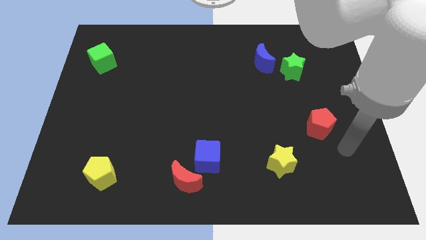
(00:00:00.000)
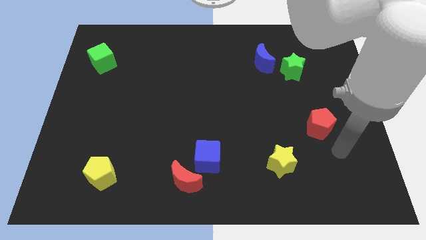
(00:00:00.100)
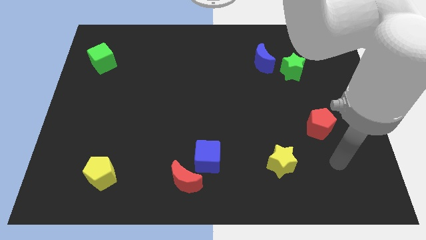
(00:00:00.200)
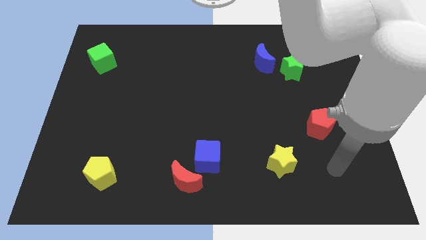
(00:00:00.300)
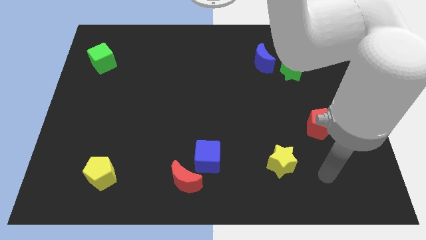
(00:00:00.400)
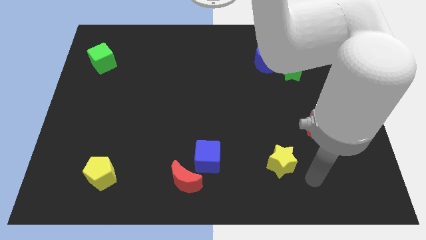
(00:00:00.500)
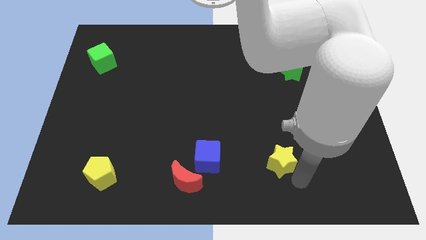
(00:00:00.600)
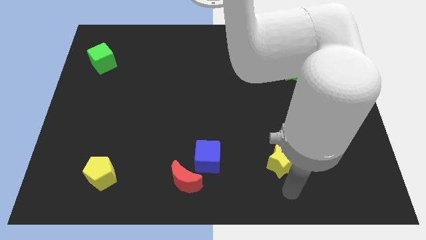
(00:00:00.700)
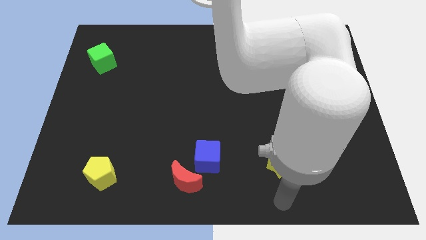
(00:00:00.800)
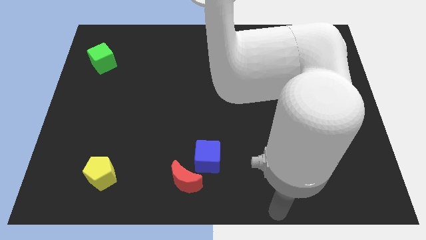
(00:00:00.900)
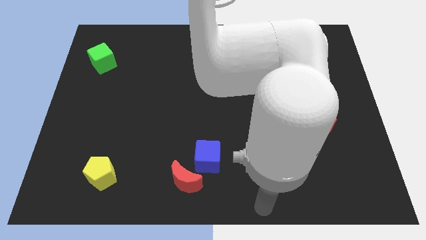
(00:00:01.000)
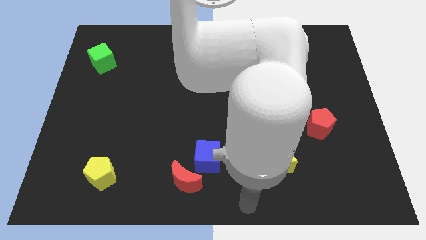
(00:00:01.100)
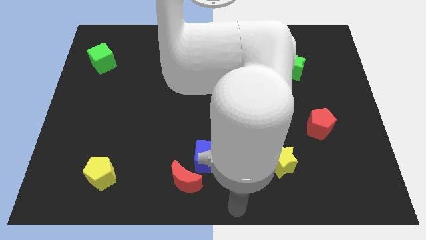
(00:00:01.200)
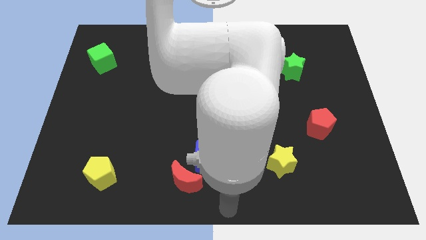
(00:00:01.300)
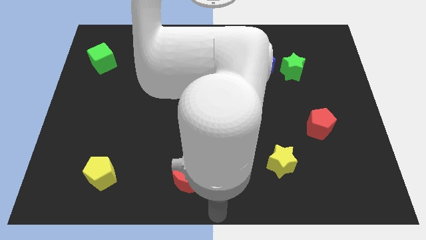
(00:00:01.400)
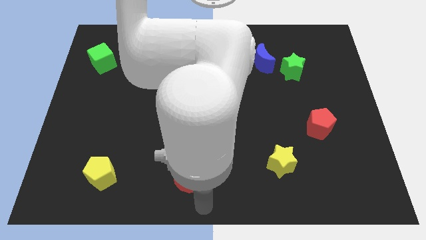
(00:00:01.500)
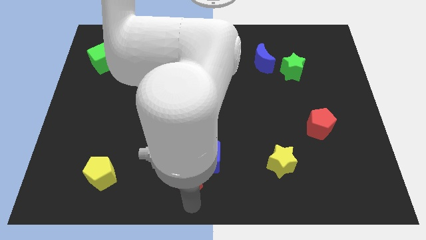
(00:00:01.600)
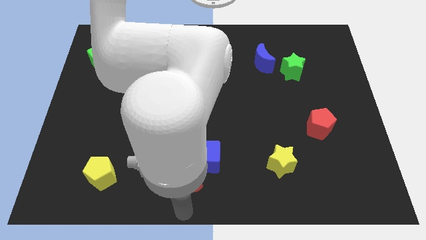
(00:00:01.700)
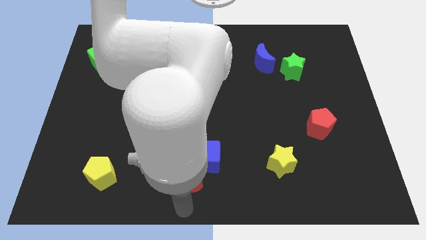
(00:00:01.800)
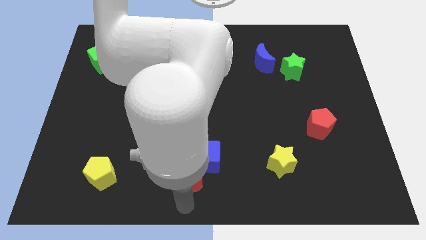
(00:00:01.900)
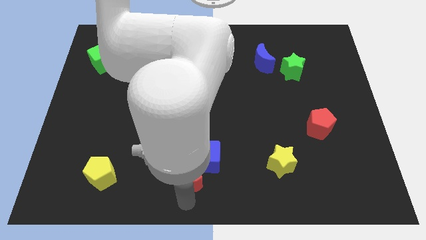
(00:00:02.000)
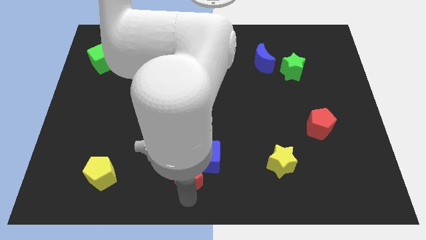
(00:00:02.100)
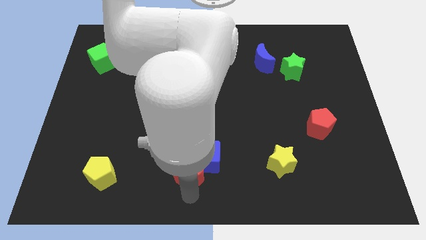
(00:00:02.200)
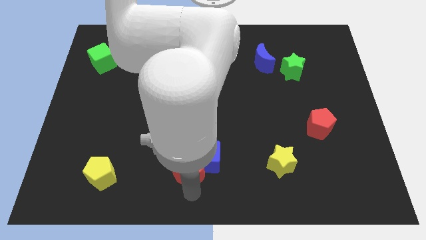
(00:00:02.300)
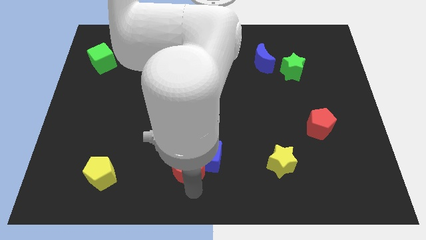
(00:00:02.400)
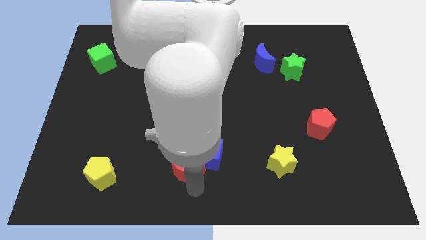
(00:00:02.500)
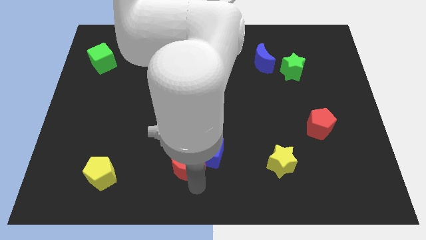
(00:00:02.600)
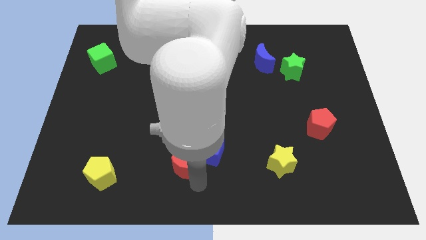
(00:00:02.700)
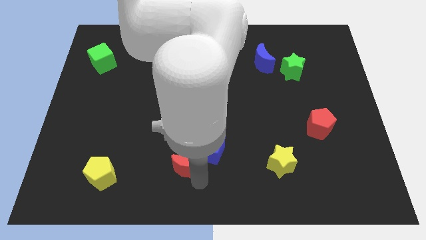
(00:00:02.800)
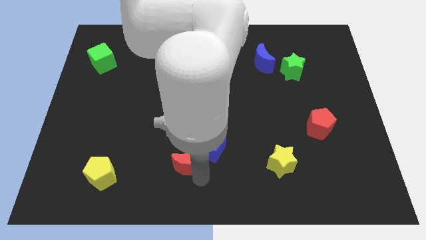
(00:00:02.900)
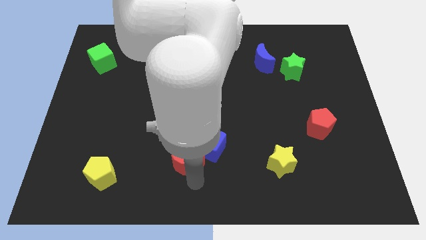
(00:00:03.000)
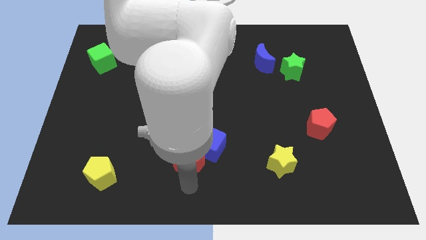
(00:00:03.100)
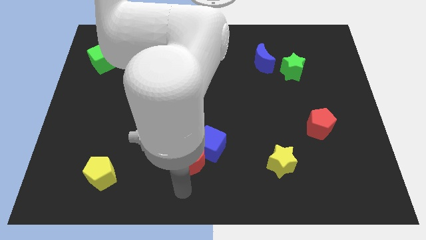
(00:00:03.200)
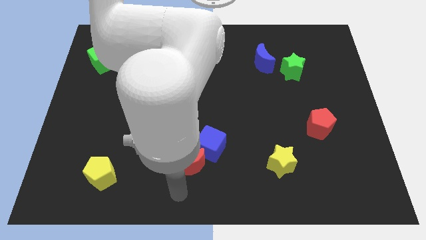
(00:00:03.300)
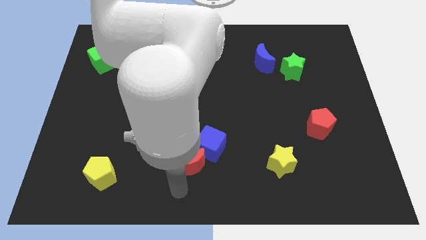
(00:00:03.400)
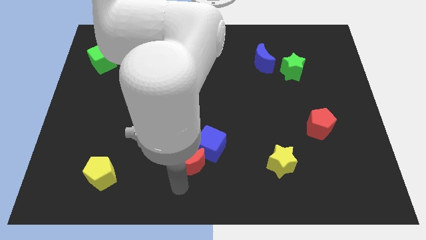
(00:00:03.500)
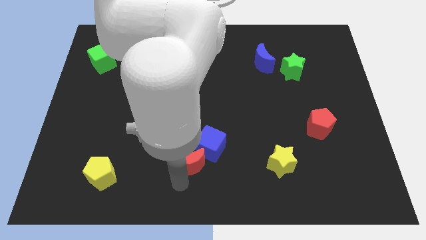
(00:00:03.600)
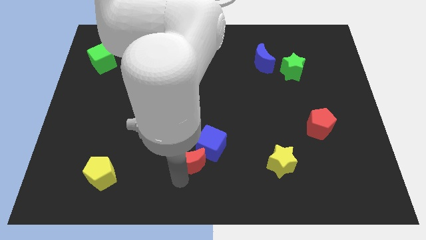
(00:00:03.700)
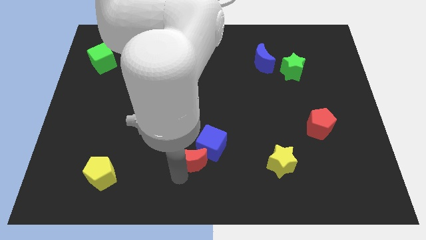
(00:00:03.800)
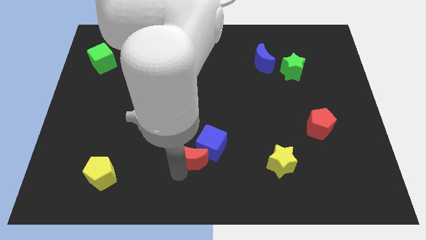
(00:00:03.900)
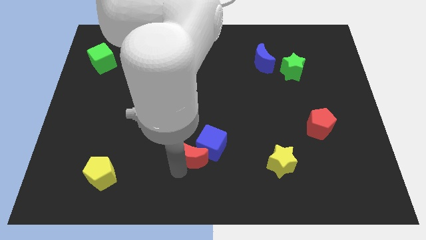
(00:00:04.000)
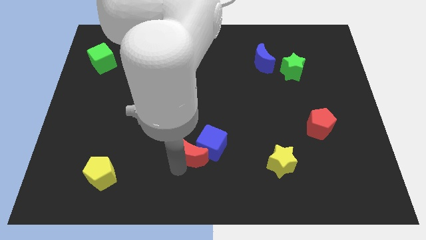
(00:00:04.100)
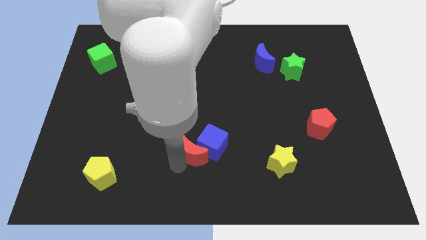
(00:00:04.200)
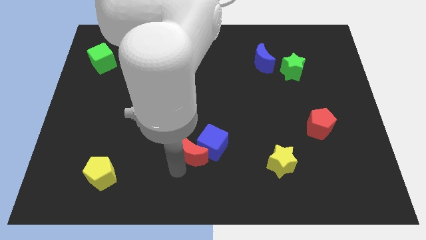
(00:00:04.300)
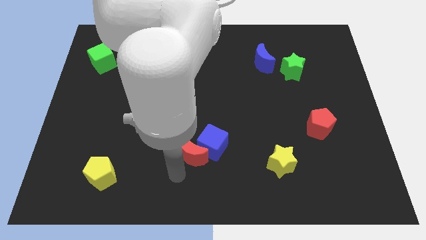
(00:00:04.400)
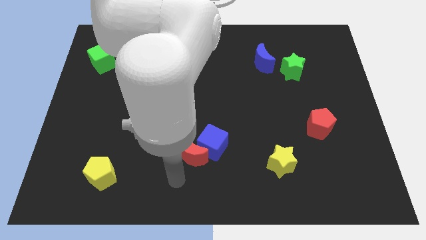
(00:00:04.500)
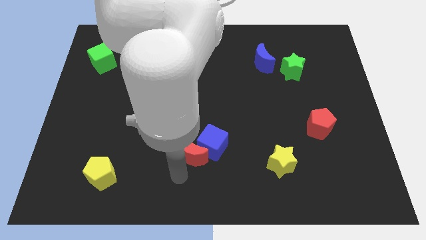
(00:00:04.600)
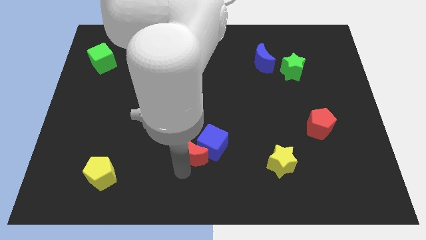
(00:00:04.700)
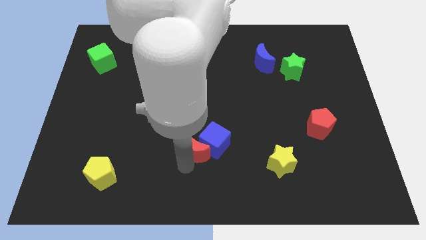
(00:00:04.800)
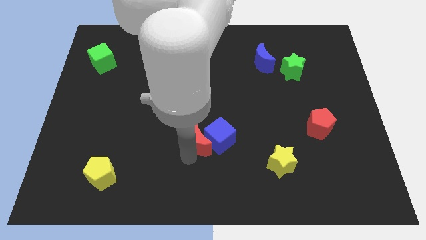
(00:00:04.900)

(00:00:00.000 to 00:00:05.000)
slightly slide the red moon up and to the right

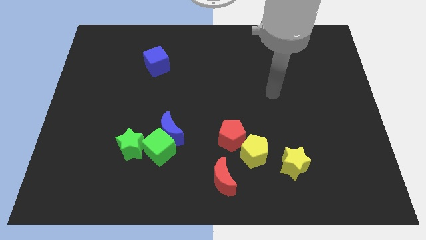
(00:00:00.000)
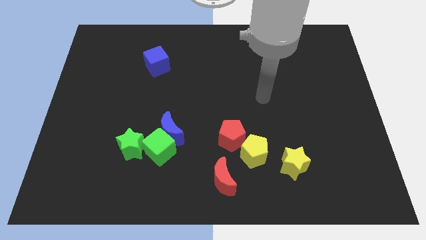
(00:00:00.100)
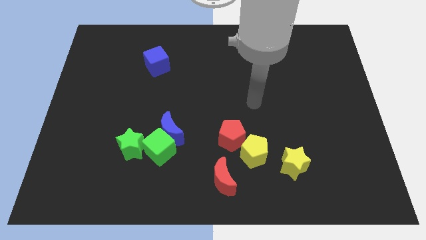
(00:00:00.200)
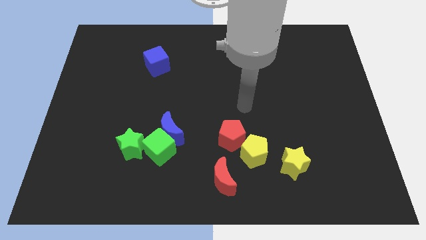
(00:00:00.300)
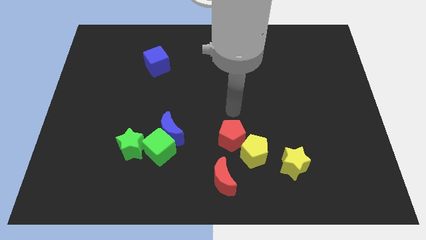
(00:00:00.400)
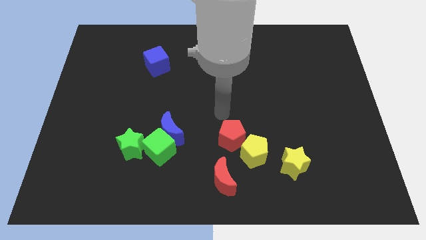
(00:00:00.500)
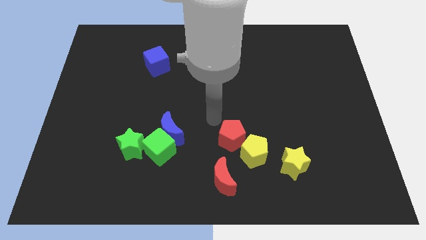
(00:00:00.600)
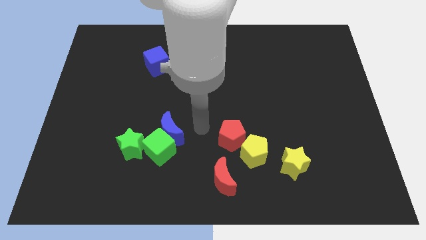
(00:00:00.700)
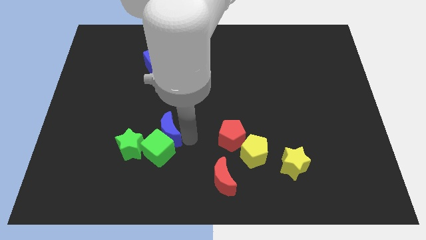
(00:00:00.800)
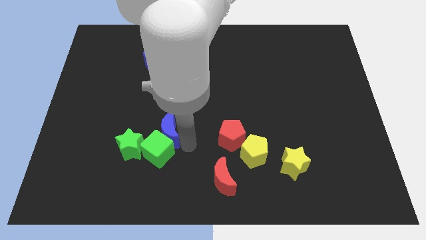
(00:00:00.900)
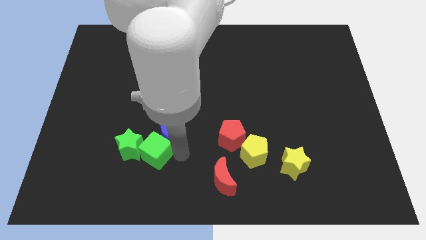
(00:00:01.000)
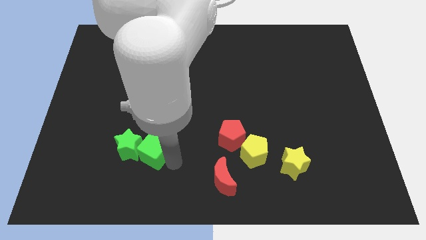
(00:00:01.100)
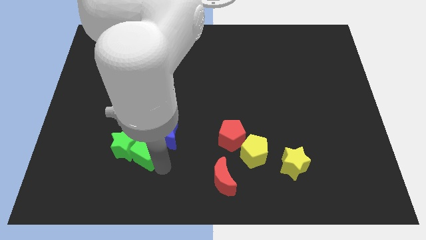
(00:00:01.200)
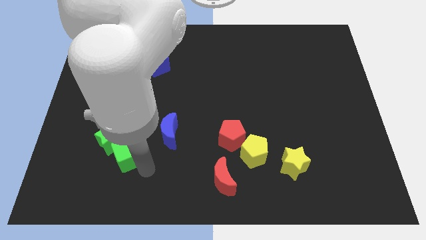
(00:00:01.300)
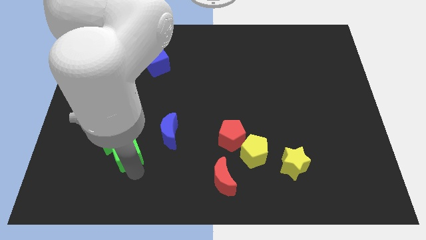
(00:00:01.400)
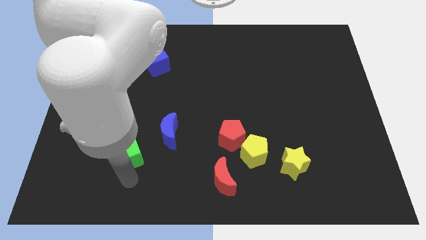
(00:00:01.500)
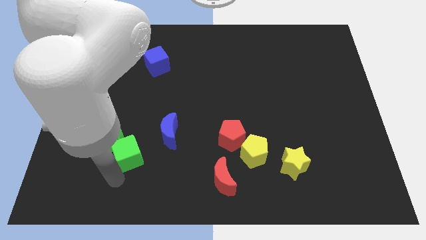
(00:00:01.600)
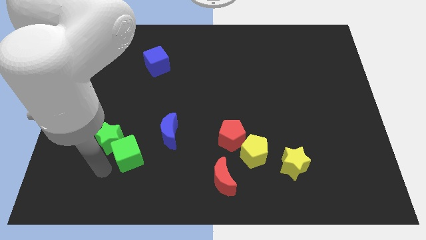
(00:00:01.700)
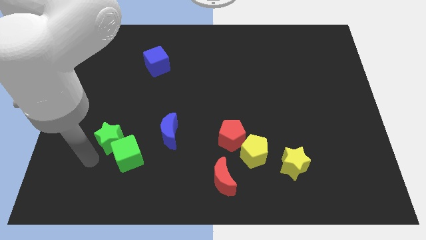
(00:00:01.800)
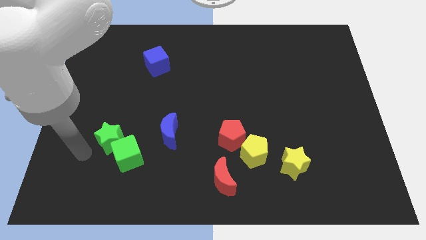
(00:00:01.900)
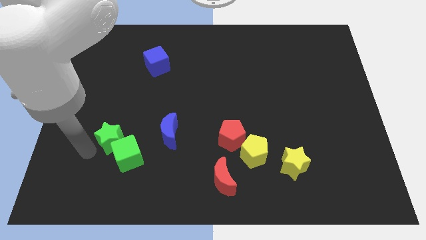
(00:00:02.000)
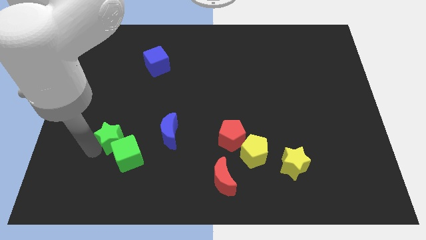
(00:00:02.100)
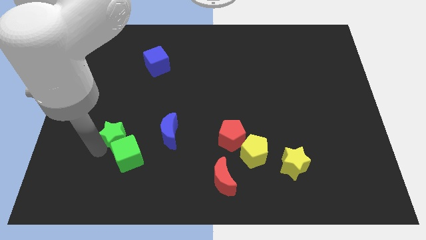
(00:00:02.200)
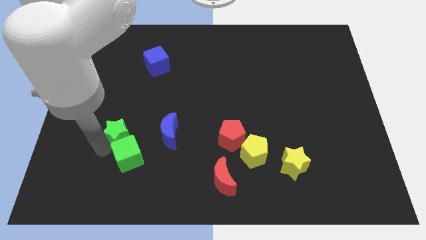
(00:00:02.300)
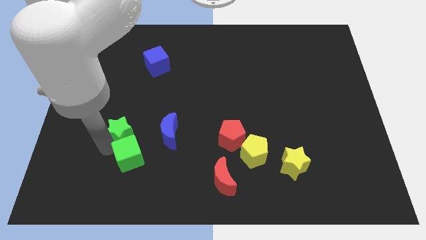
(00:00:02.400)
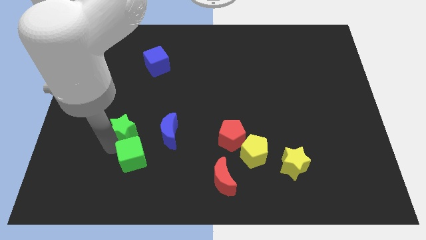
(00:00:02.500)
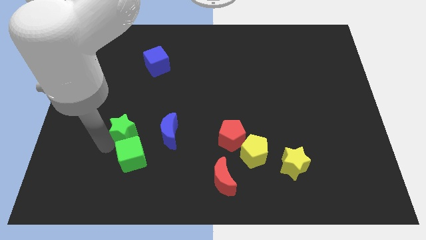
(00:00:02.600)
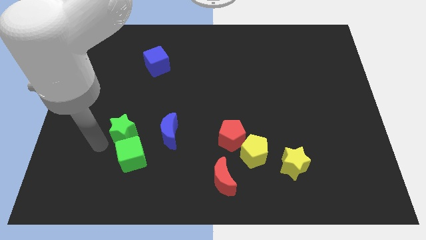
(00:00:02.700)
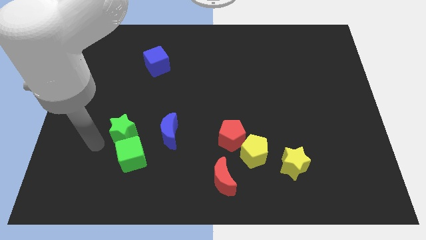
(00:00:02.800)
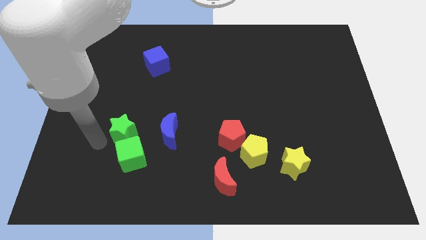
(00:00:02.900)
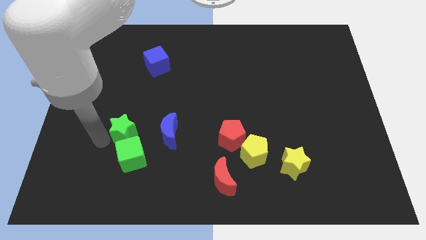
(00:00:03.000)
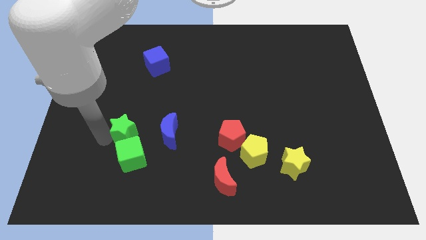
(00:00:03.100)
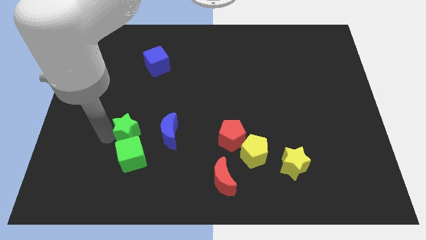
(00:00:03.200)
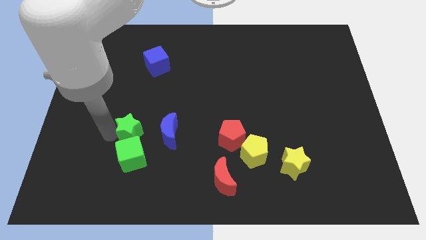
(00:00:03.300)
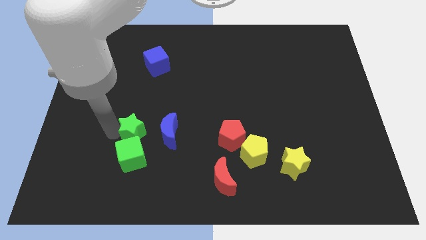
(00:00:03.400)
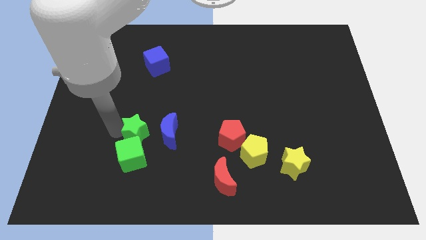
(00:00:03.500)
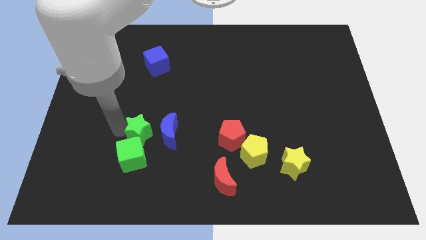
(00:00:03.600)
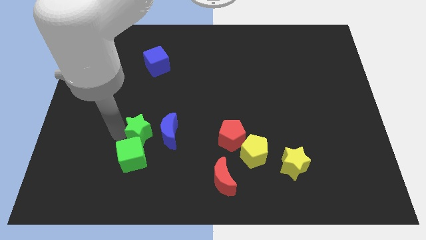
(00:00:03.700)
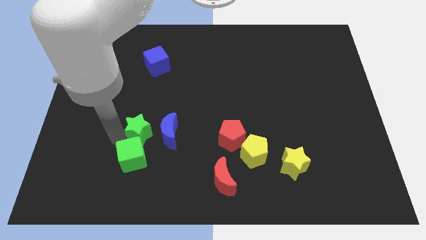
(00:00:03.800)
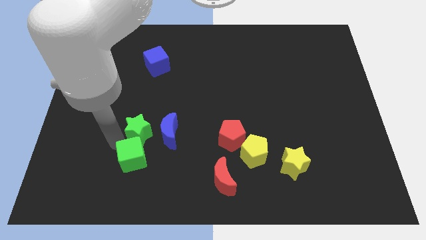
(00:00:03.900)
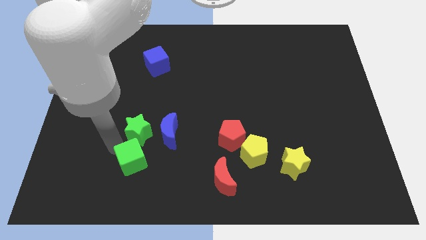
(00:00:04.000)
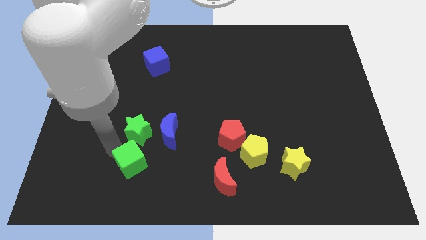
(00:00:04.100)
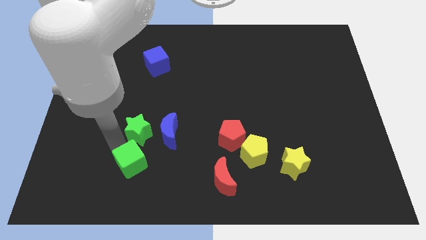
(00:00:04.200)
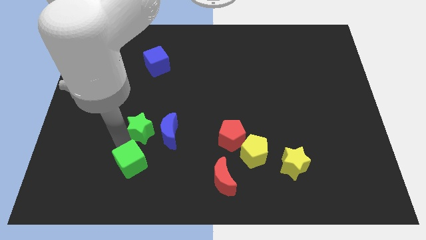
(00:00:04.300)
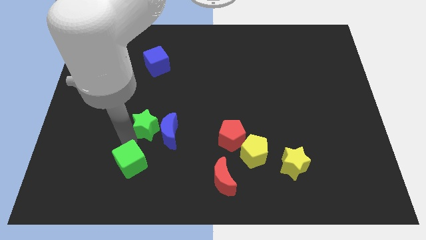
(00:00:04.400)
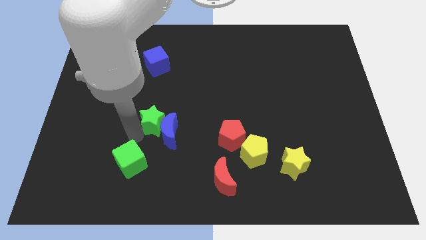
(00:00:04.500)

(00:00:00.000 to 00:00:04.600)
push the green star diagonally upwards and right a little
